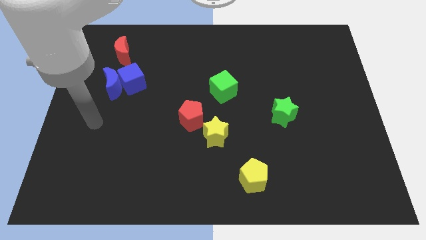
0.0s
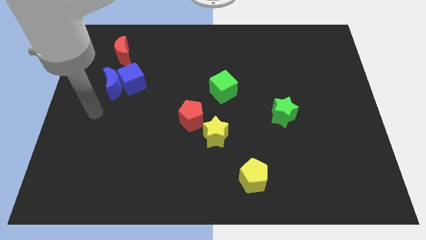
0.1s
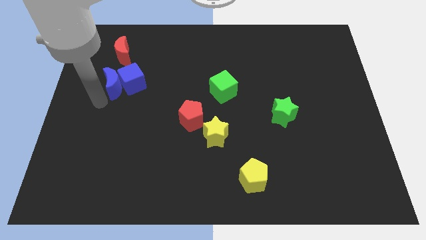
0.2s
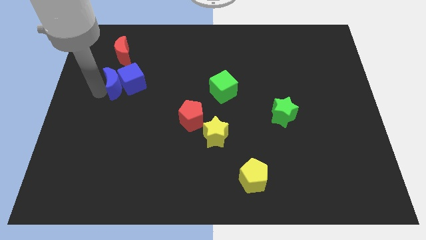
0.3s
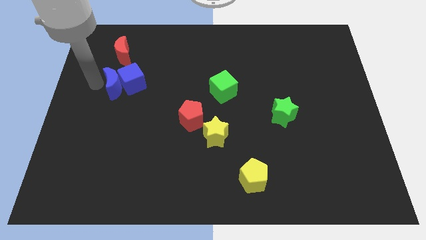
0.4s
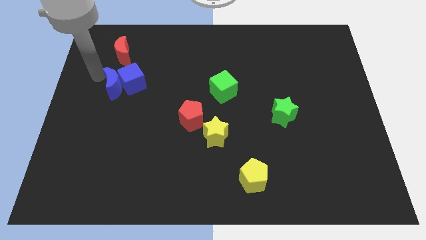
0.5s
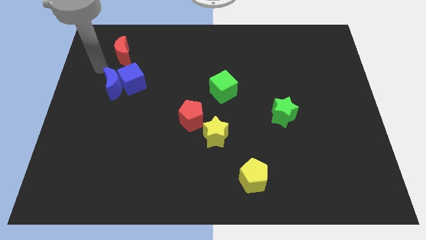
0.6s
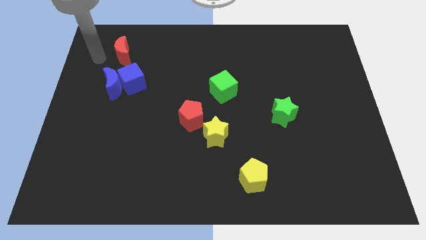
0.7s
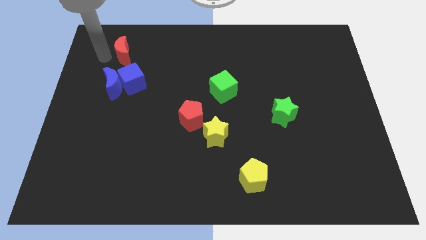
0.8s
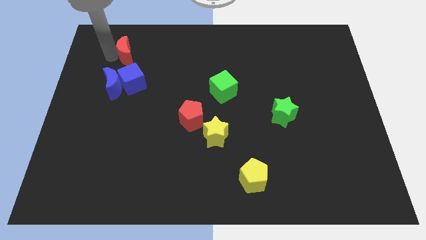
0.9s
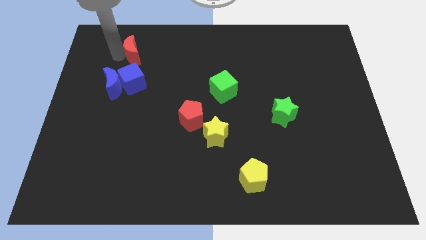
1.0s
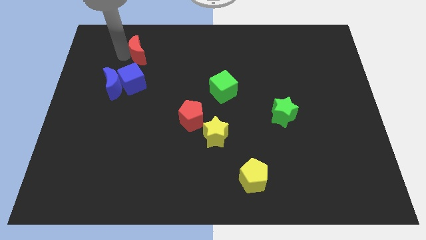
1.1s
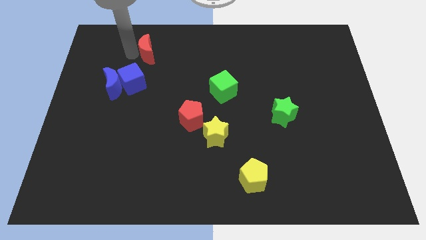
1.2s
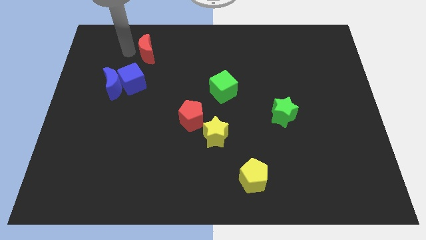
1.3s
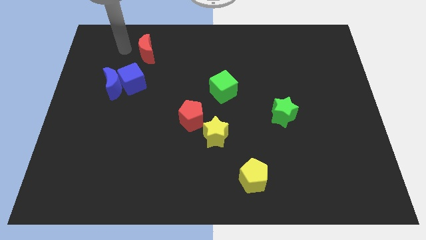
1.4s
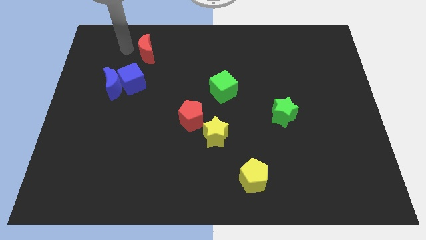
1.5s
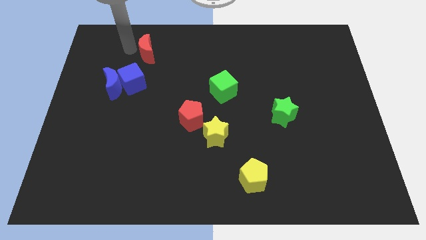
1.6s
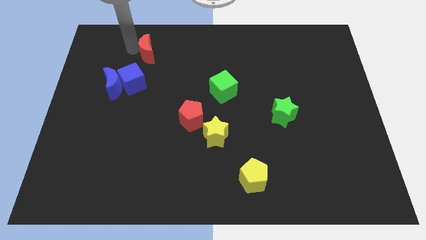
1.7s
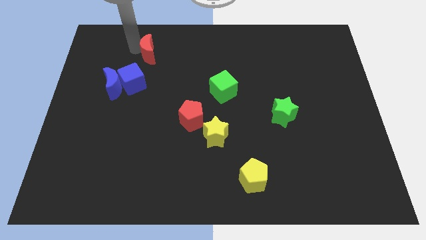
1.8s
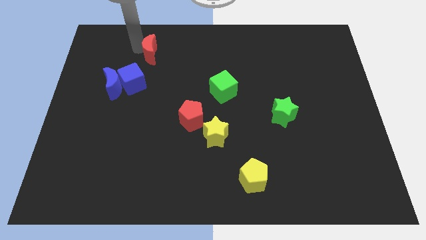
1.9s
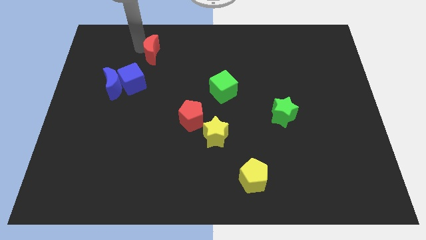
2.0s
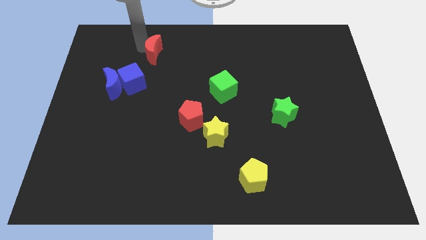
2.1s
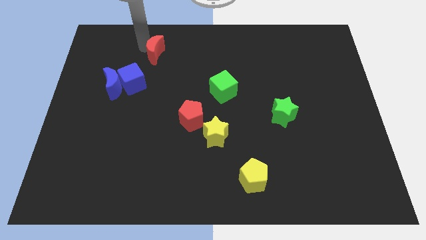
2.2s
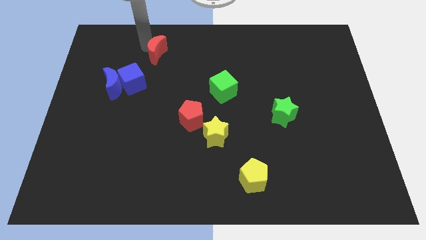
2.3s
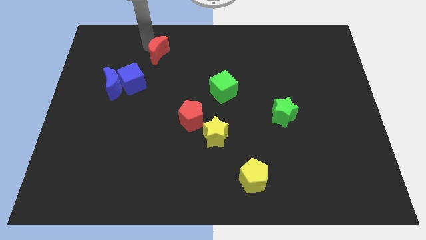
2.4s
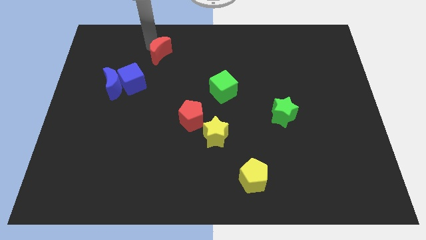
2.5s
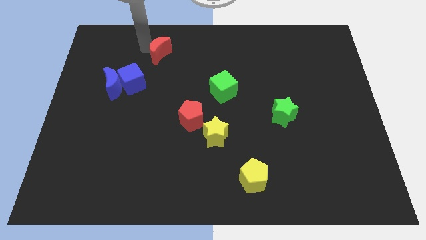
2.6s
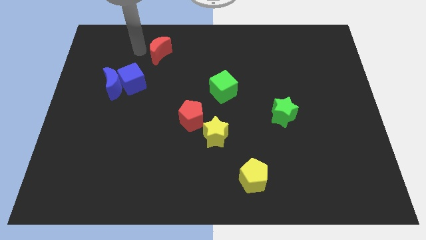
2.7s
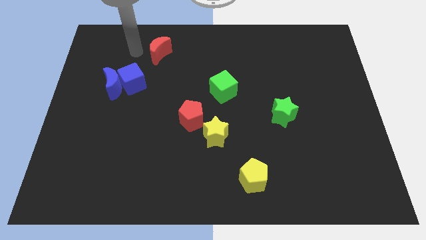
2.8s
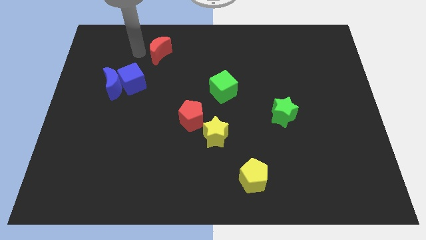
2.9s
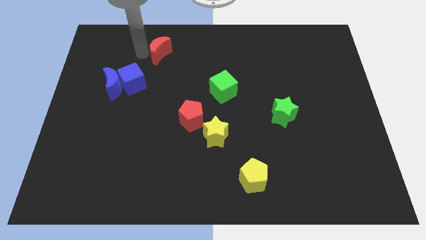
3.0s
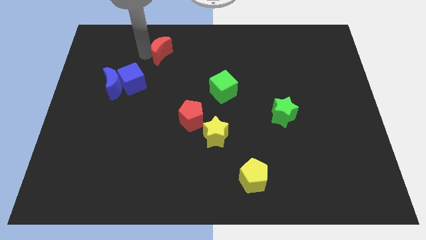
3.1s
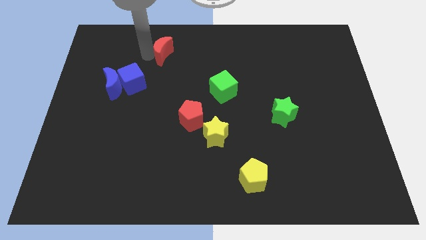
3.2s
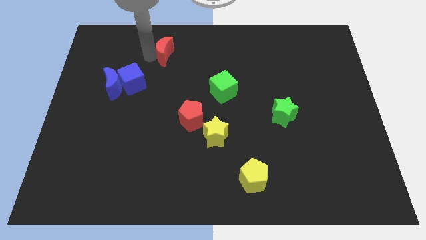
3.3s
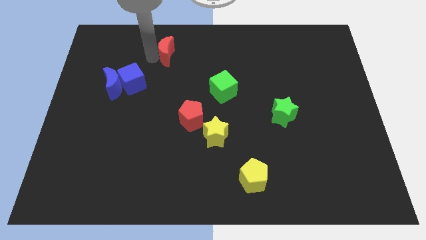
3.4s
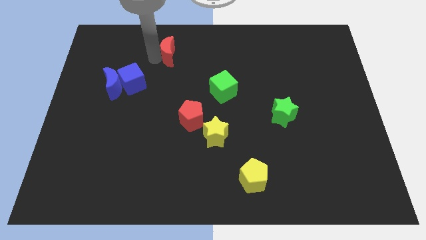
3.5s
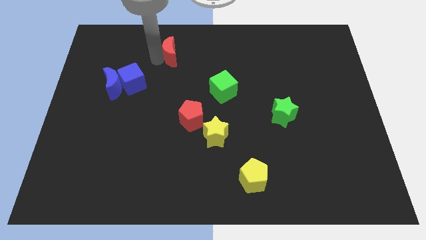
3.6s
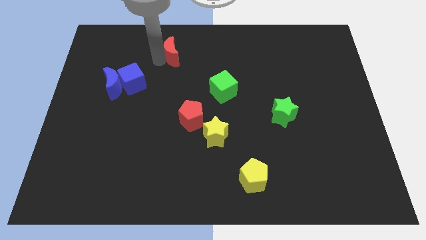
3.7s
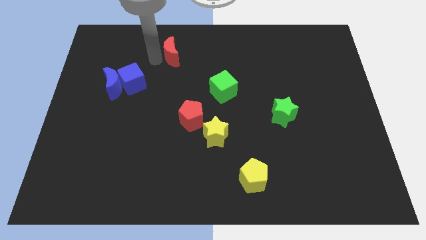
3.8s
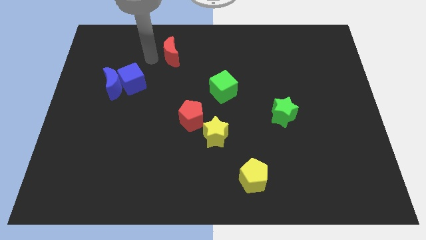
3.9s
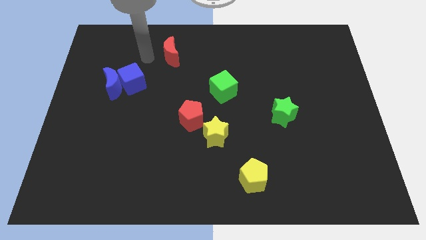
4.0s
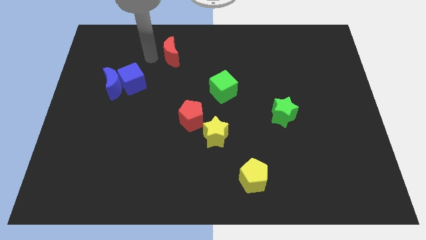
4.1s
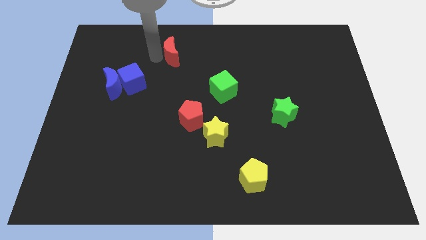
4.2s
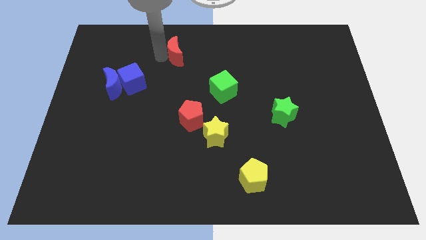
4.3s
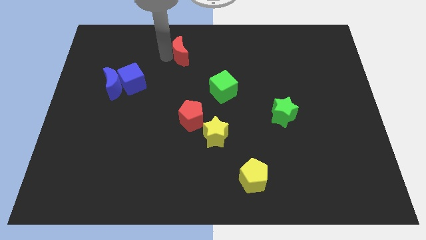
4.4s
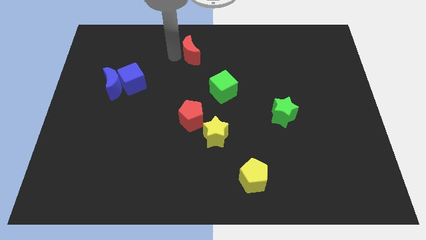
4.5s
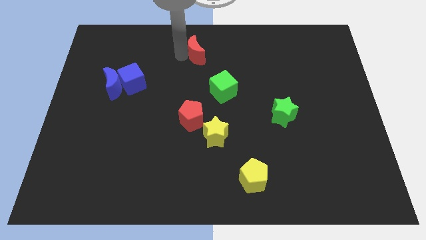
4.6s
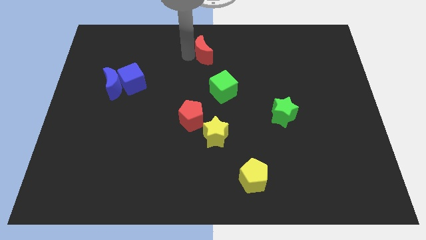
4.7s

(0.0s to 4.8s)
push the red moon to the right

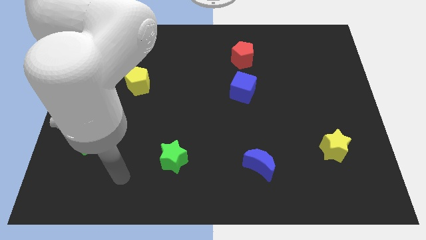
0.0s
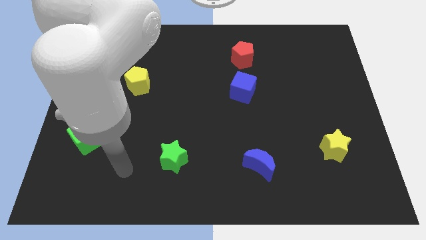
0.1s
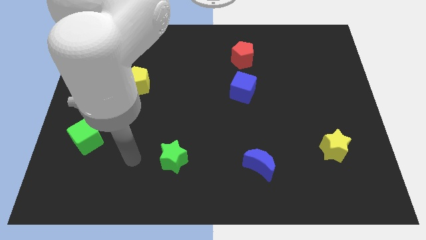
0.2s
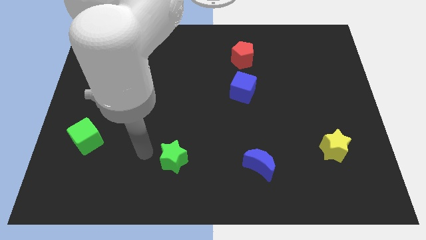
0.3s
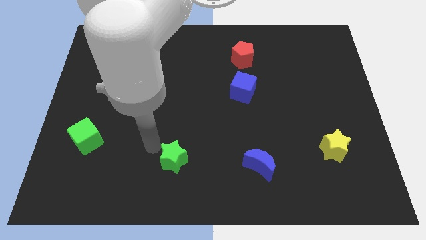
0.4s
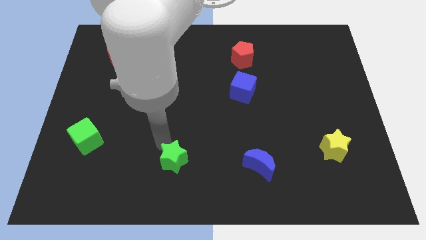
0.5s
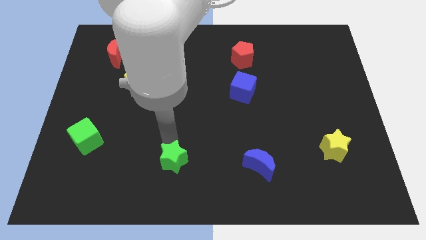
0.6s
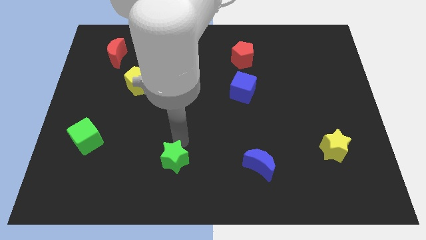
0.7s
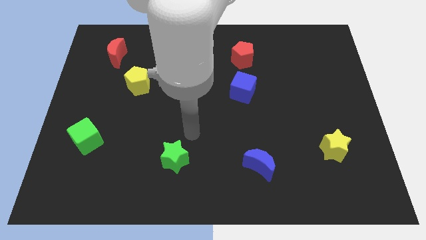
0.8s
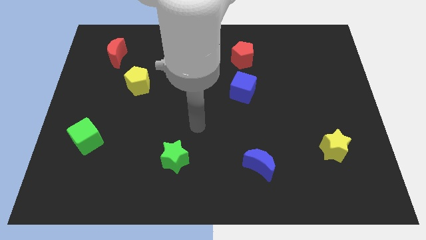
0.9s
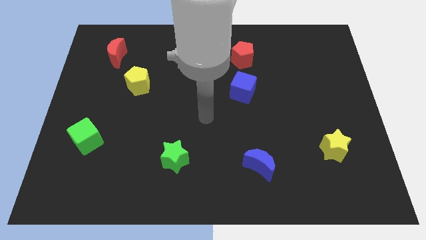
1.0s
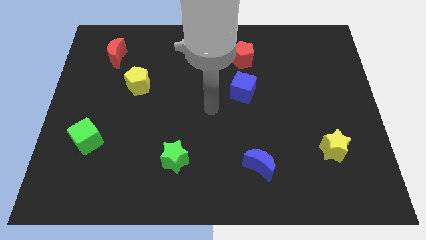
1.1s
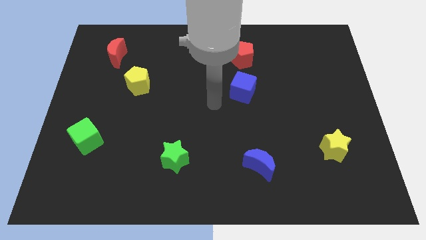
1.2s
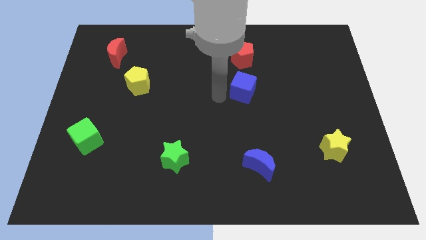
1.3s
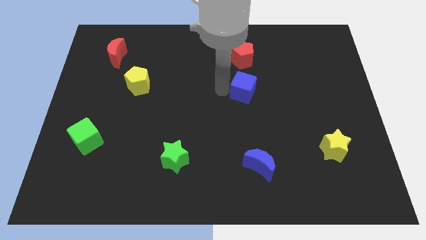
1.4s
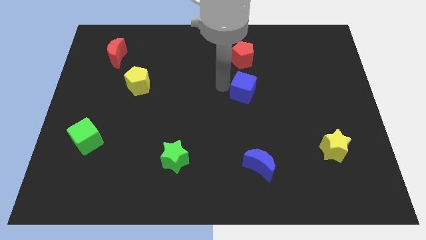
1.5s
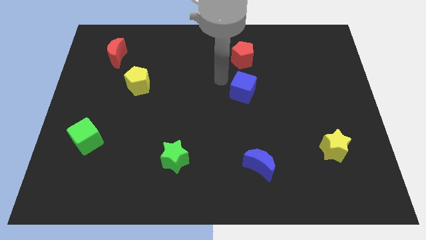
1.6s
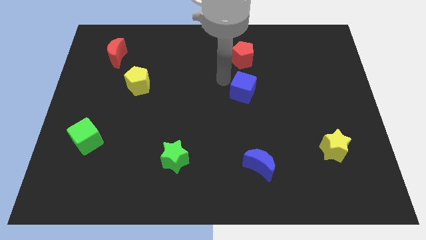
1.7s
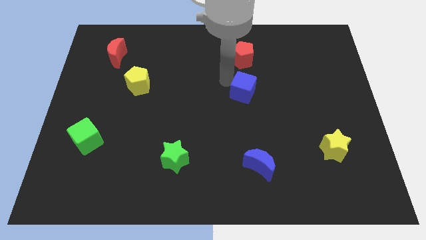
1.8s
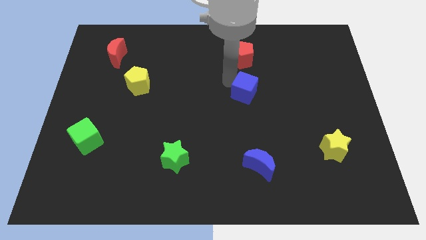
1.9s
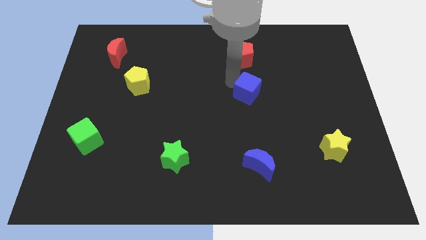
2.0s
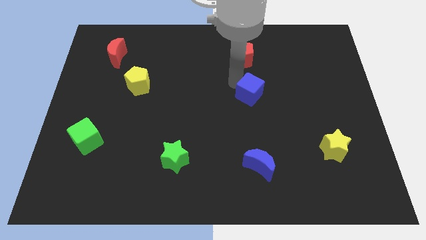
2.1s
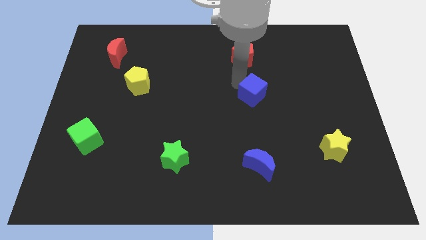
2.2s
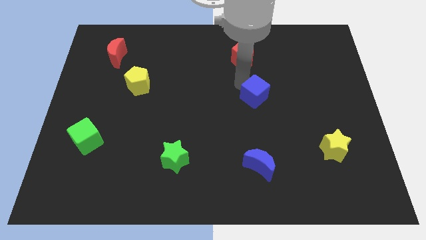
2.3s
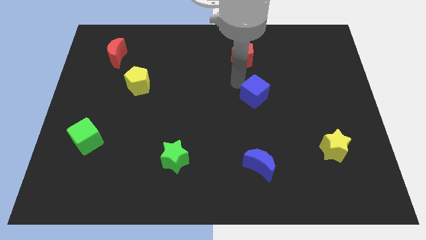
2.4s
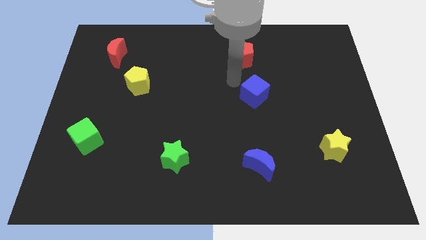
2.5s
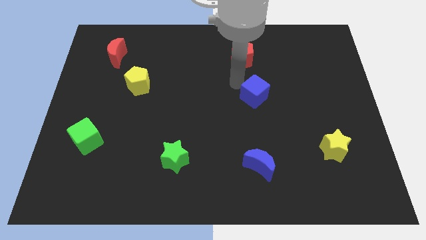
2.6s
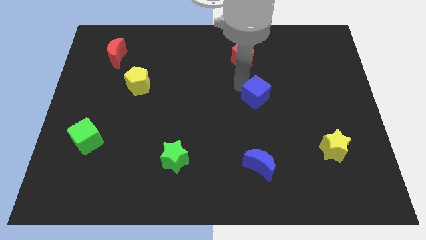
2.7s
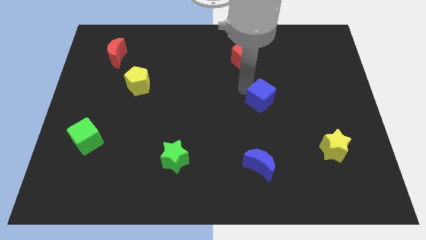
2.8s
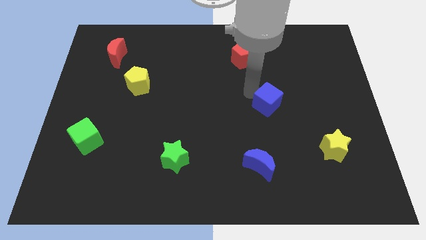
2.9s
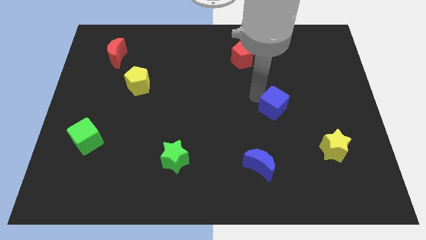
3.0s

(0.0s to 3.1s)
move the blue cube diagonally downwards and right a little bit

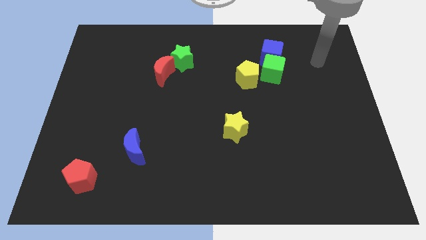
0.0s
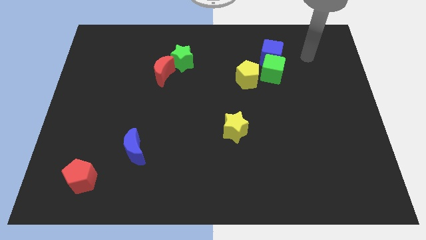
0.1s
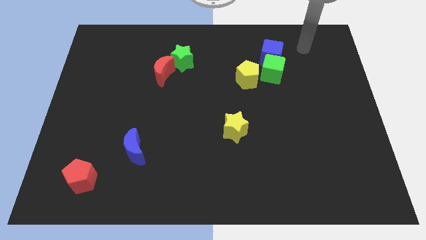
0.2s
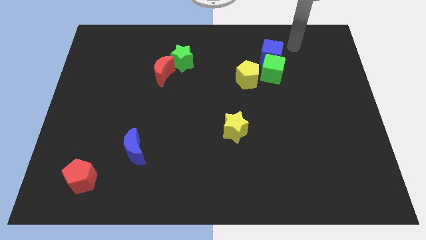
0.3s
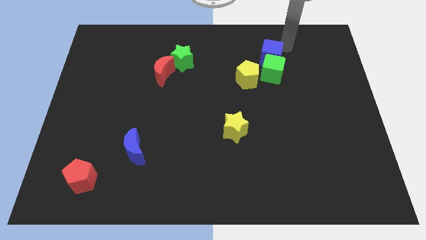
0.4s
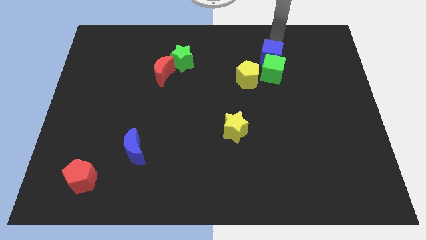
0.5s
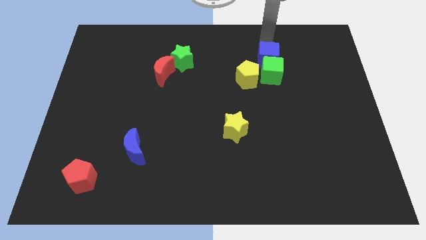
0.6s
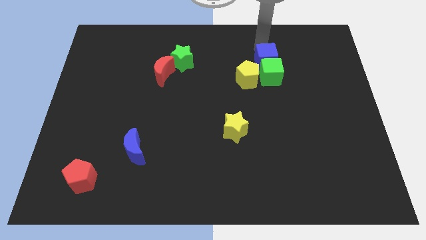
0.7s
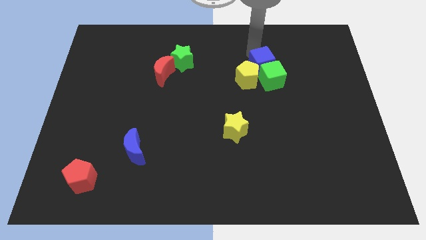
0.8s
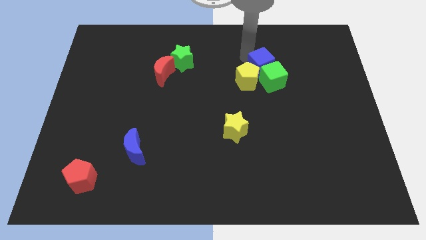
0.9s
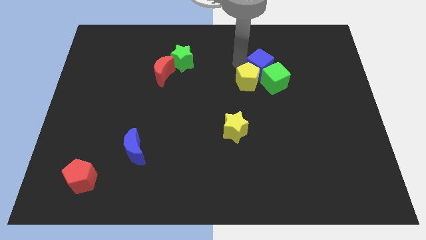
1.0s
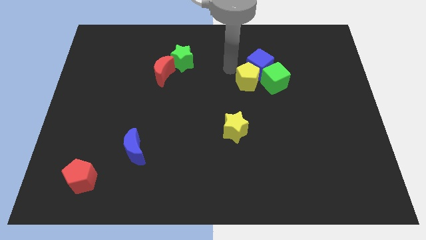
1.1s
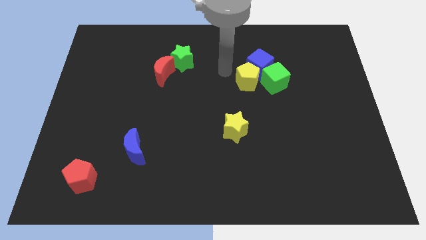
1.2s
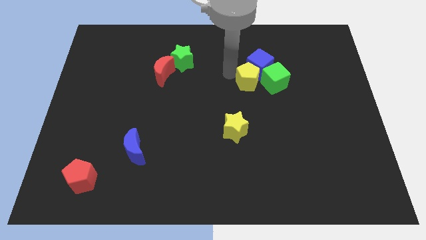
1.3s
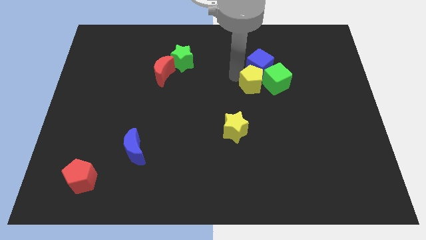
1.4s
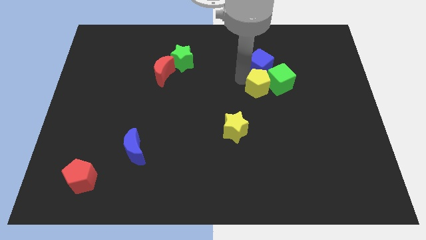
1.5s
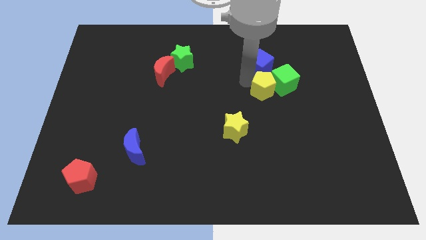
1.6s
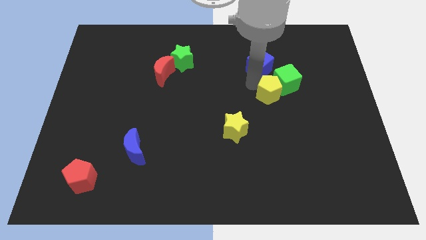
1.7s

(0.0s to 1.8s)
push the yellow pentagon downwards and to the right diagonally a bit
